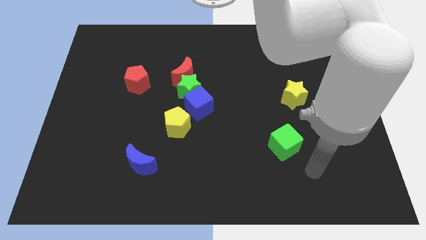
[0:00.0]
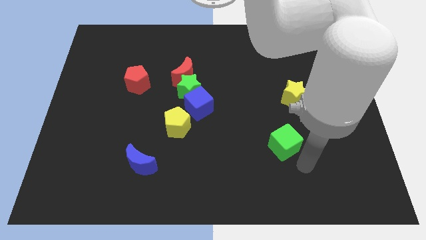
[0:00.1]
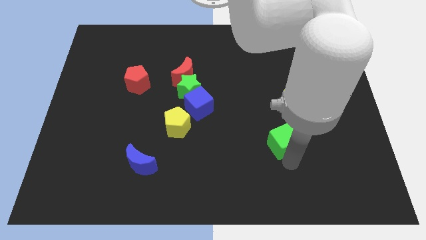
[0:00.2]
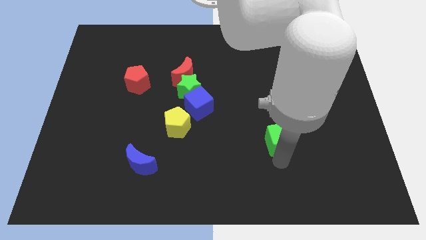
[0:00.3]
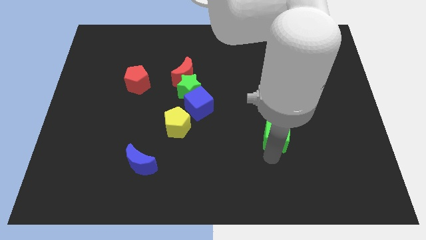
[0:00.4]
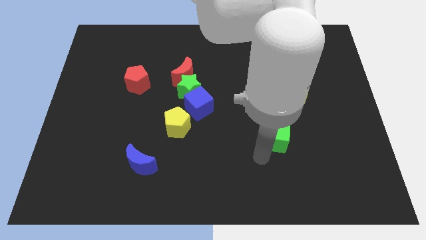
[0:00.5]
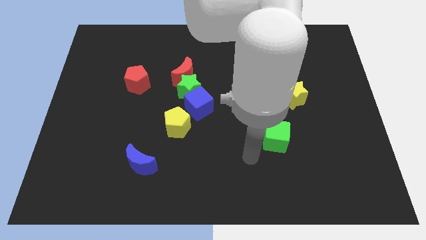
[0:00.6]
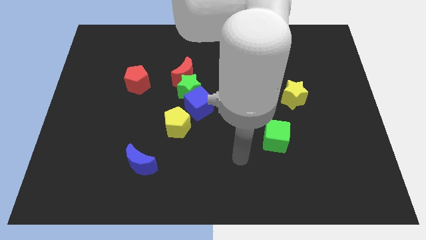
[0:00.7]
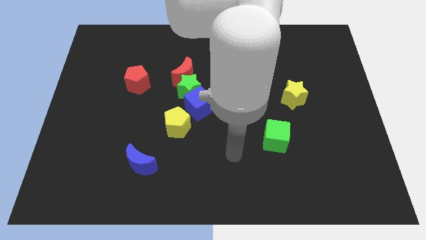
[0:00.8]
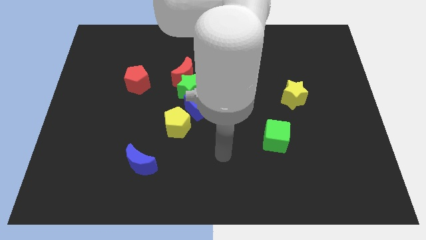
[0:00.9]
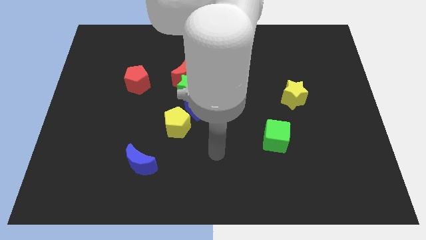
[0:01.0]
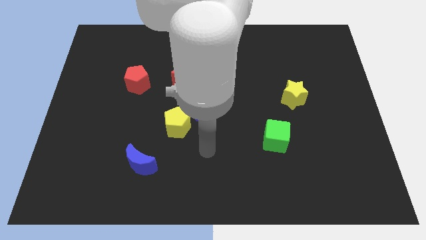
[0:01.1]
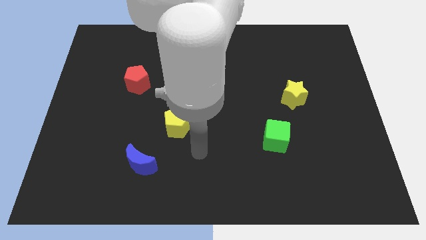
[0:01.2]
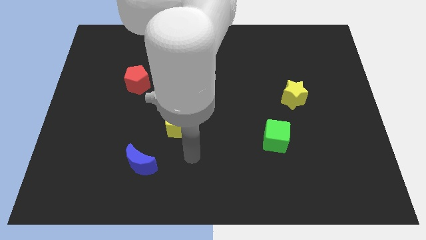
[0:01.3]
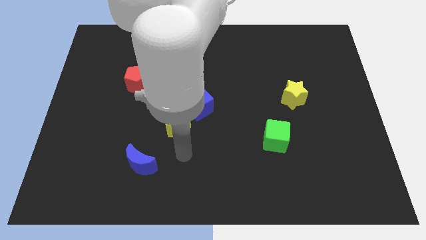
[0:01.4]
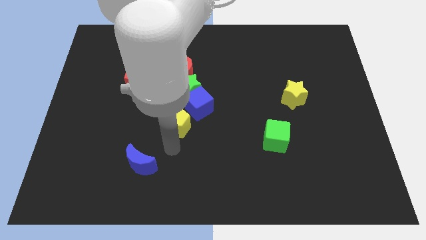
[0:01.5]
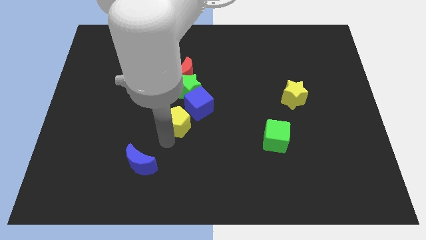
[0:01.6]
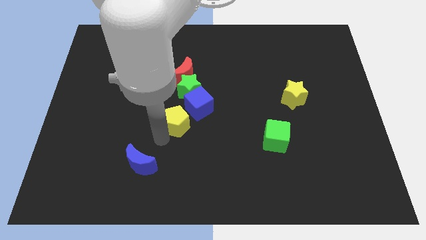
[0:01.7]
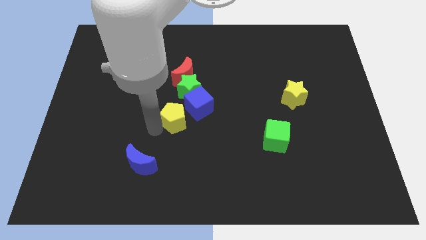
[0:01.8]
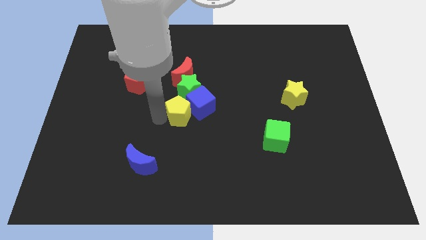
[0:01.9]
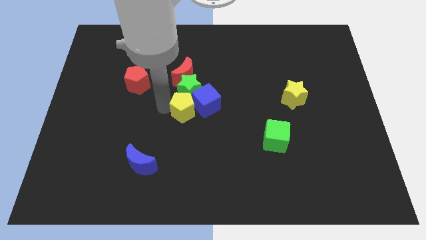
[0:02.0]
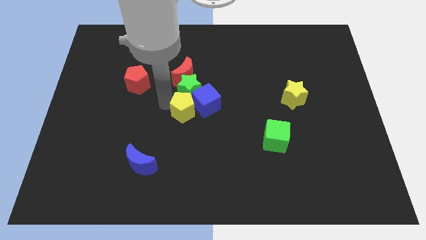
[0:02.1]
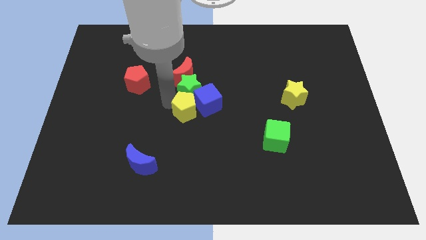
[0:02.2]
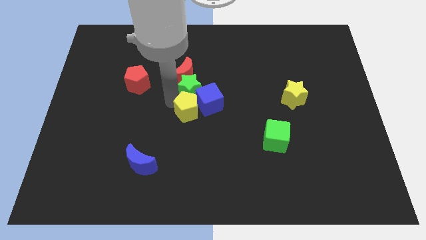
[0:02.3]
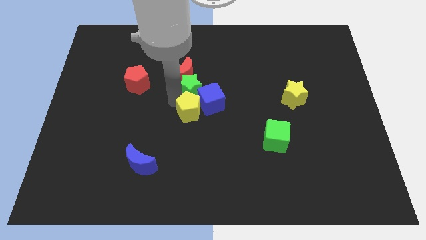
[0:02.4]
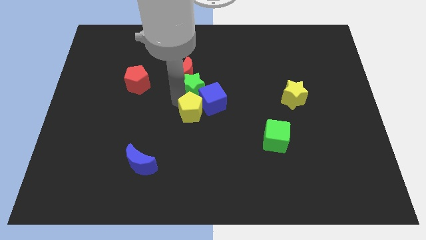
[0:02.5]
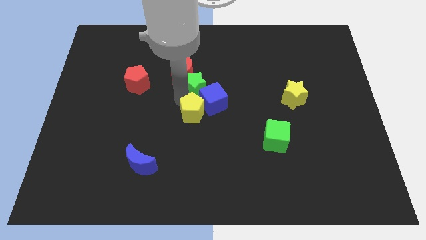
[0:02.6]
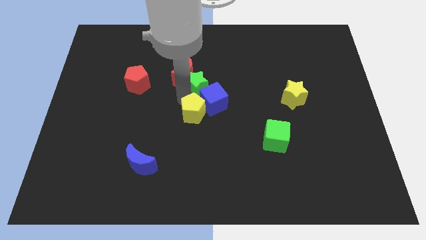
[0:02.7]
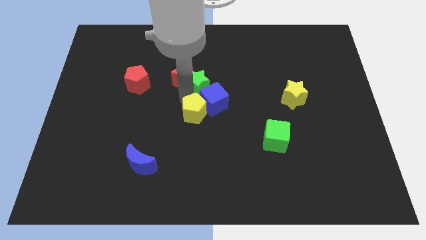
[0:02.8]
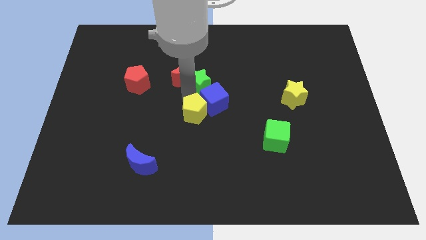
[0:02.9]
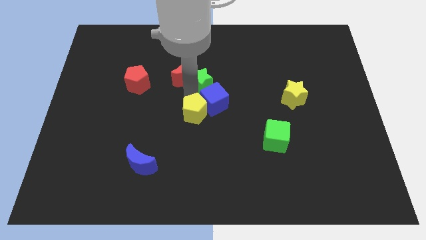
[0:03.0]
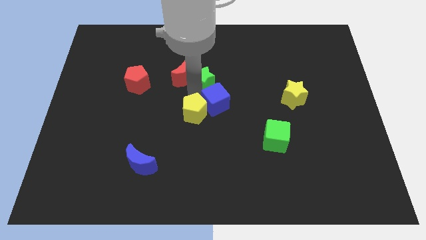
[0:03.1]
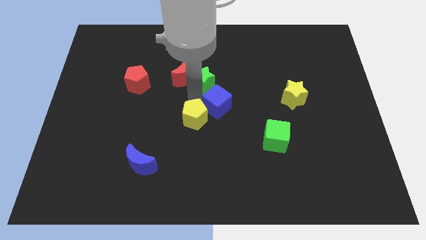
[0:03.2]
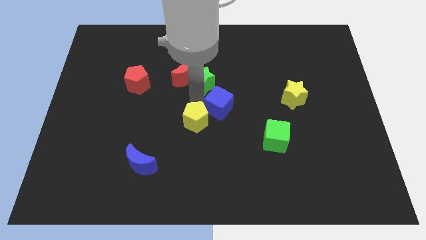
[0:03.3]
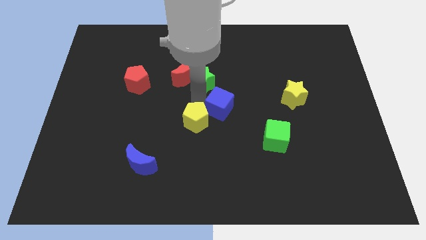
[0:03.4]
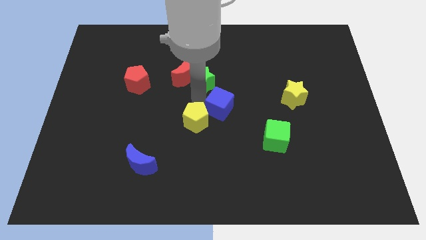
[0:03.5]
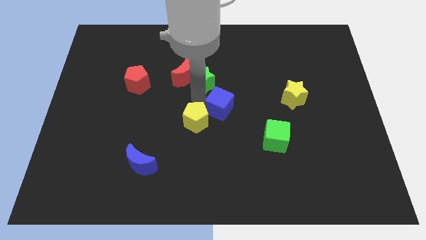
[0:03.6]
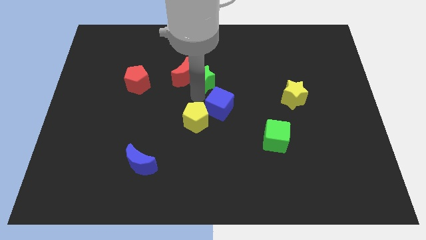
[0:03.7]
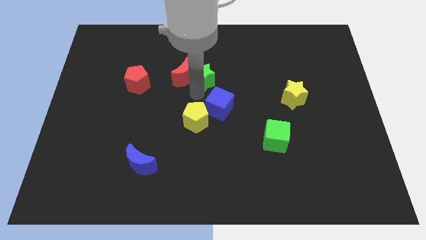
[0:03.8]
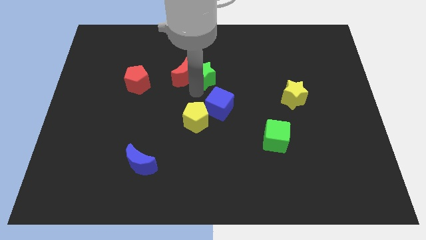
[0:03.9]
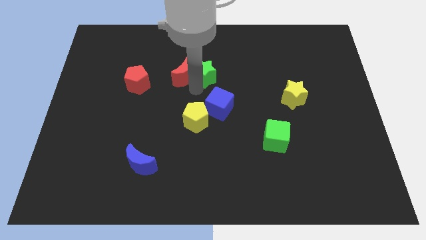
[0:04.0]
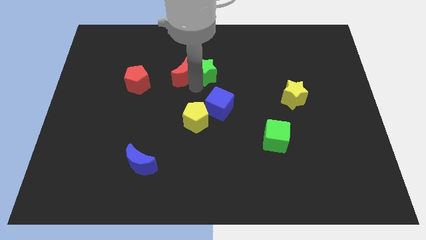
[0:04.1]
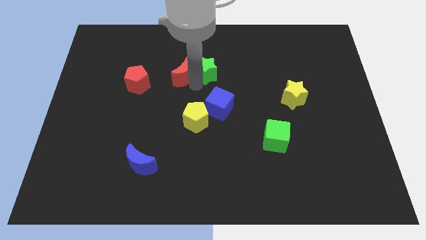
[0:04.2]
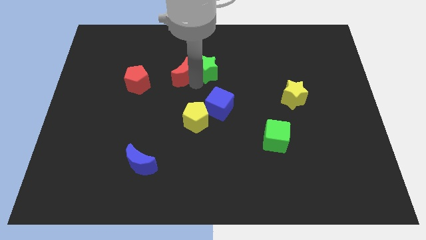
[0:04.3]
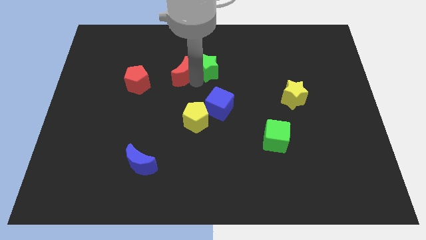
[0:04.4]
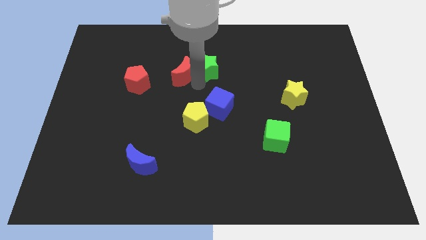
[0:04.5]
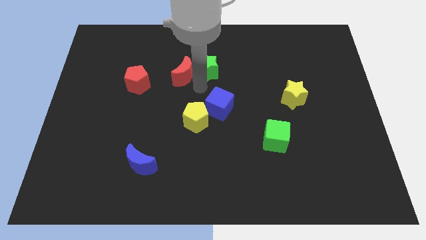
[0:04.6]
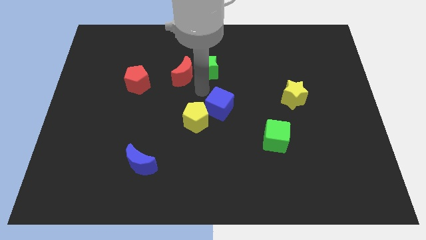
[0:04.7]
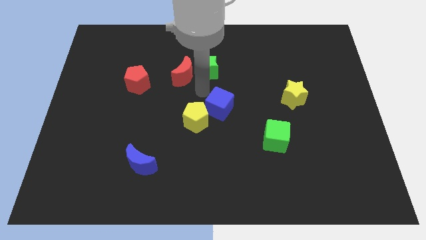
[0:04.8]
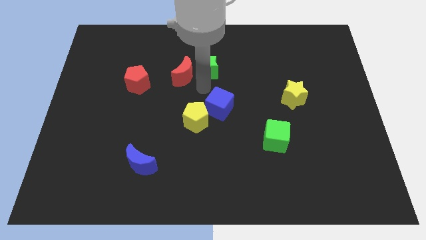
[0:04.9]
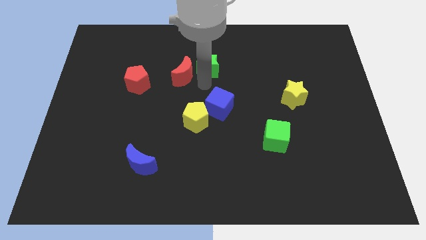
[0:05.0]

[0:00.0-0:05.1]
move the green star away from the clump

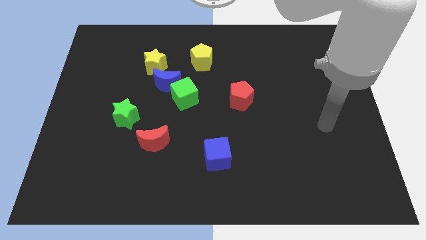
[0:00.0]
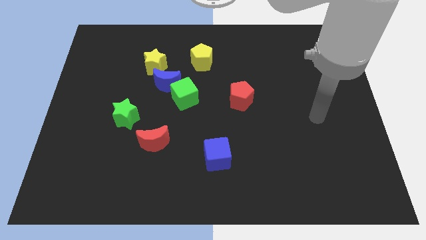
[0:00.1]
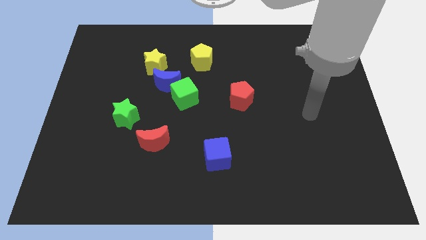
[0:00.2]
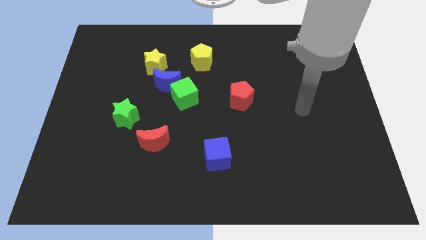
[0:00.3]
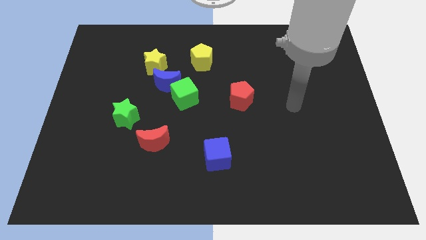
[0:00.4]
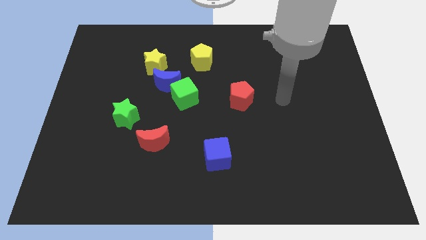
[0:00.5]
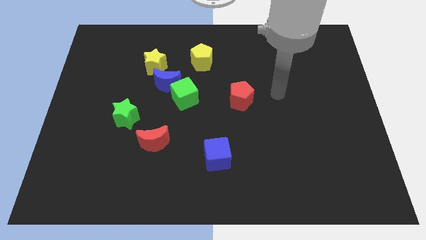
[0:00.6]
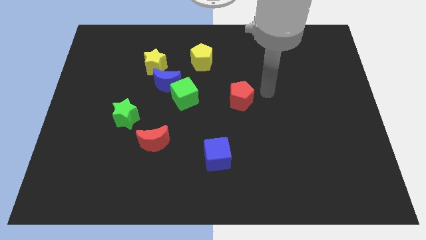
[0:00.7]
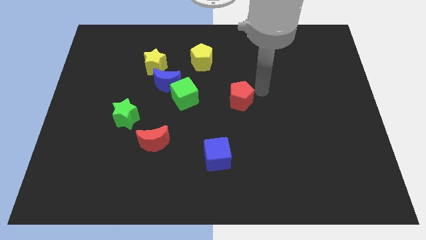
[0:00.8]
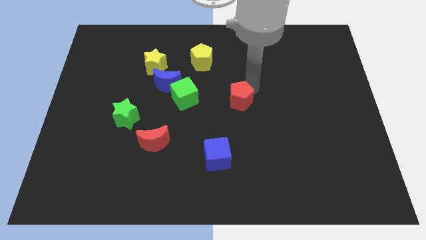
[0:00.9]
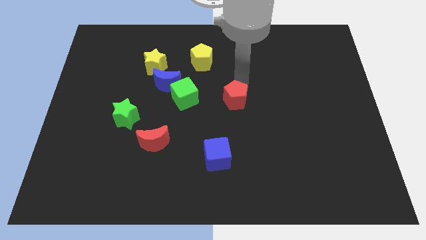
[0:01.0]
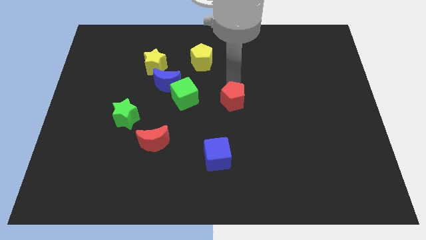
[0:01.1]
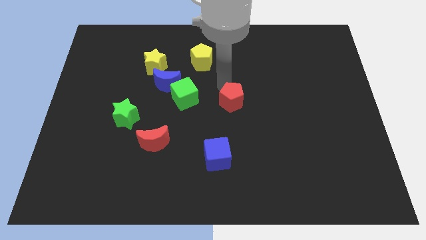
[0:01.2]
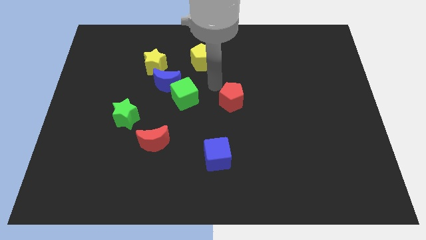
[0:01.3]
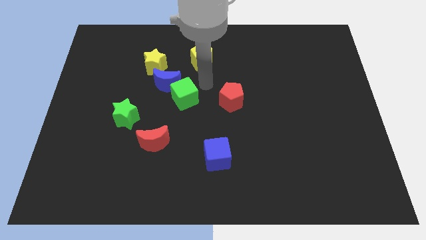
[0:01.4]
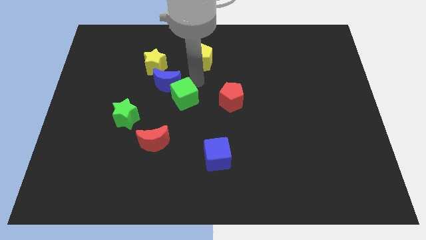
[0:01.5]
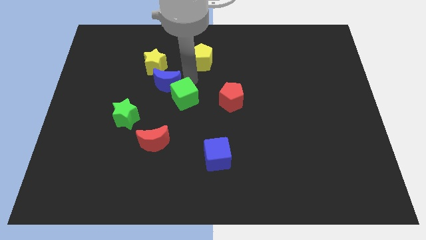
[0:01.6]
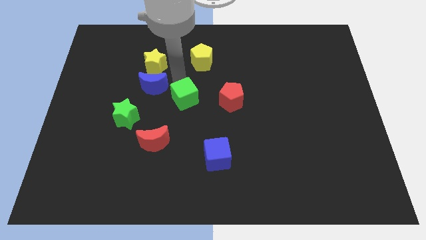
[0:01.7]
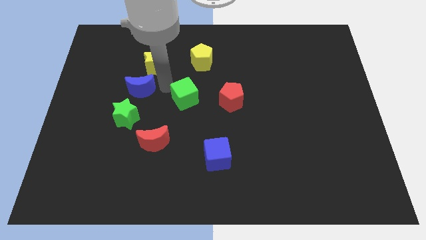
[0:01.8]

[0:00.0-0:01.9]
pull the green cube apart from the blue moon

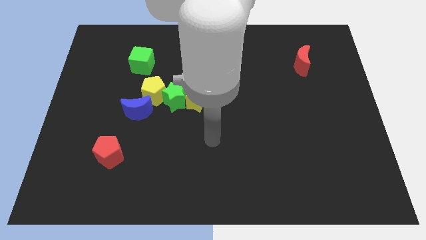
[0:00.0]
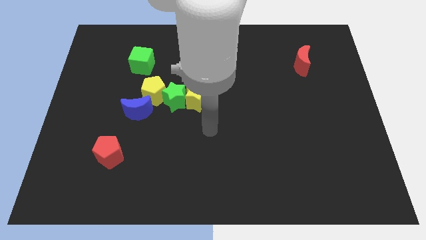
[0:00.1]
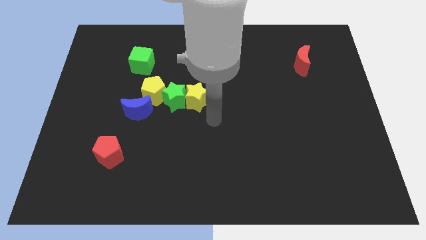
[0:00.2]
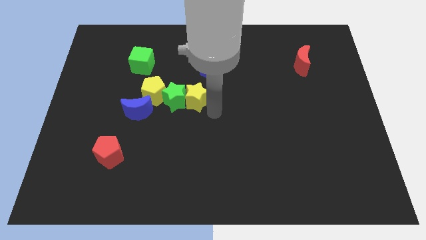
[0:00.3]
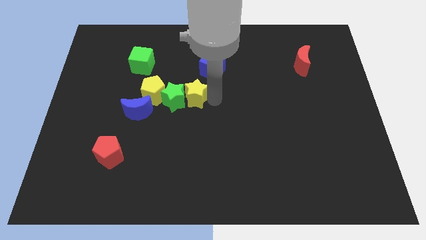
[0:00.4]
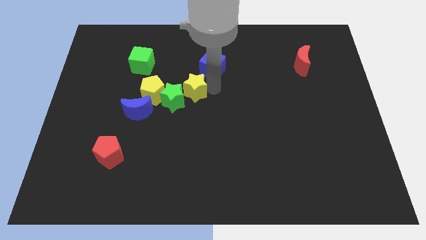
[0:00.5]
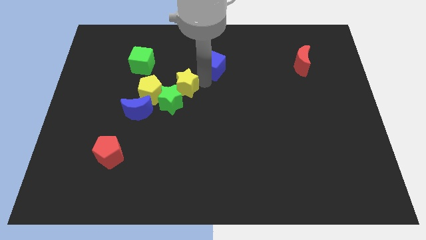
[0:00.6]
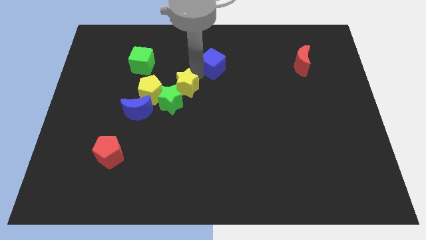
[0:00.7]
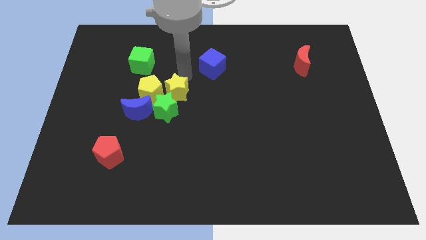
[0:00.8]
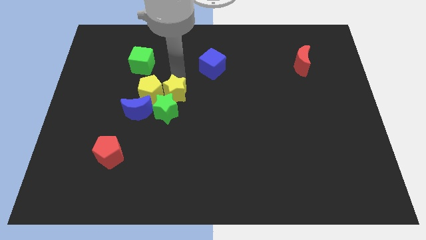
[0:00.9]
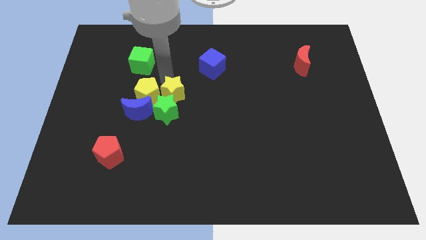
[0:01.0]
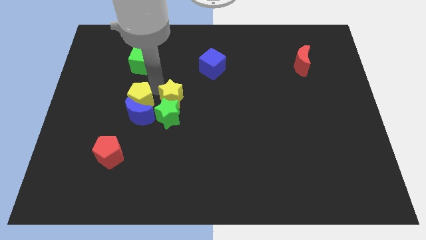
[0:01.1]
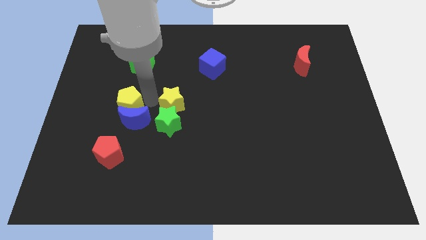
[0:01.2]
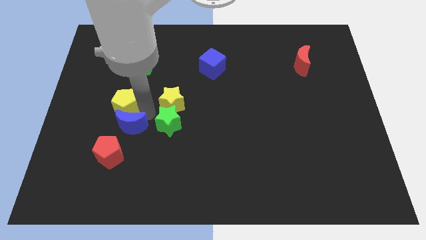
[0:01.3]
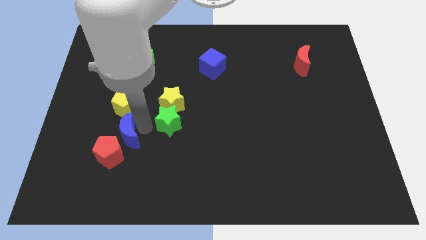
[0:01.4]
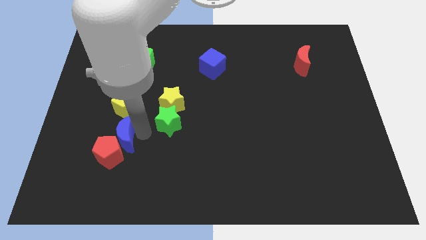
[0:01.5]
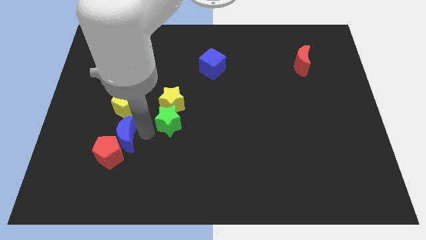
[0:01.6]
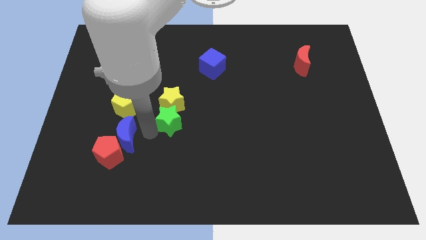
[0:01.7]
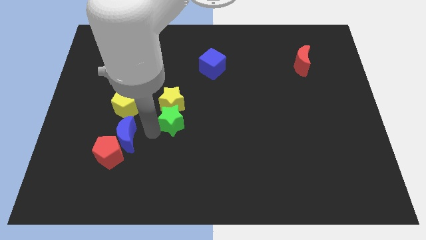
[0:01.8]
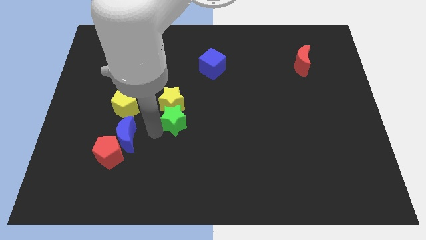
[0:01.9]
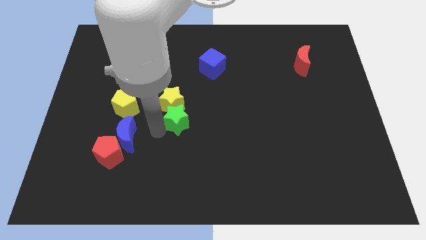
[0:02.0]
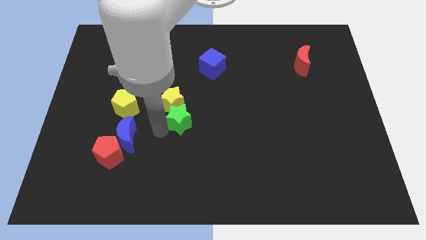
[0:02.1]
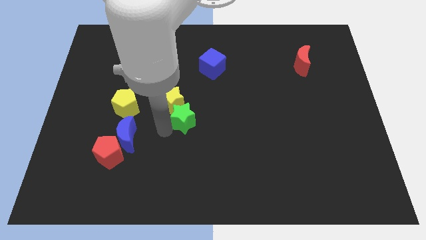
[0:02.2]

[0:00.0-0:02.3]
separate the green star from the yellow star, yellow pentagon, and blue moon
